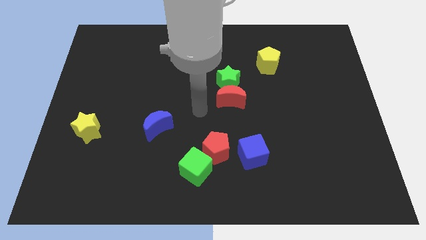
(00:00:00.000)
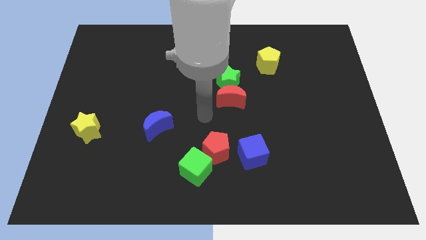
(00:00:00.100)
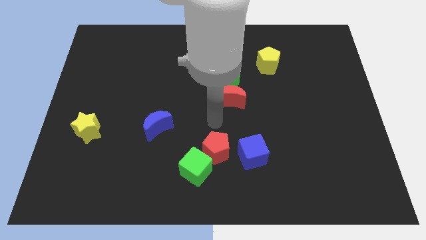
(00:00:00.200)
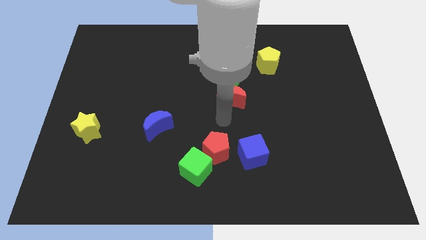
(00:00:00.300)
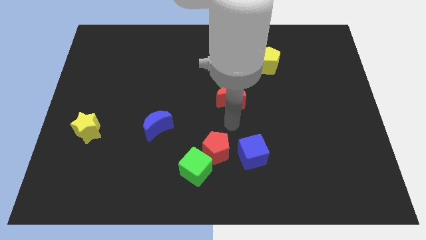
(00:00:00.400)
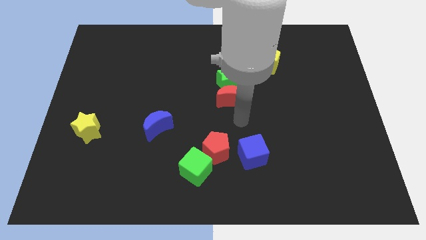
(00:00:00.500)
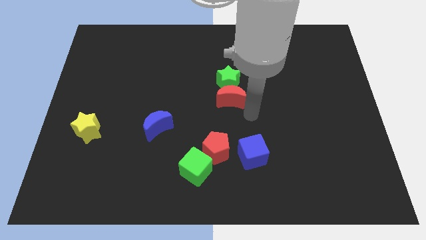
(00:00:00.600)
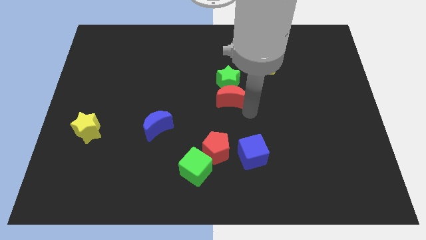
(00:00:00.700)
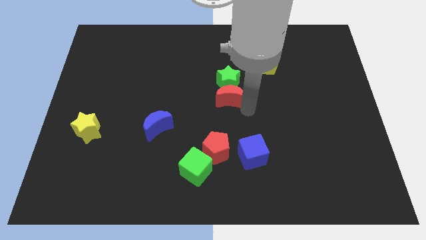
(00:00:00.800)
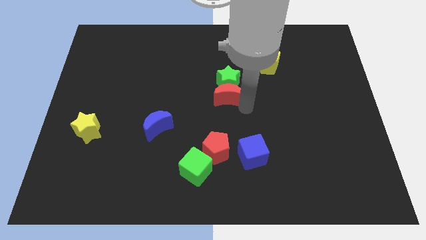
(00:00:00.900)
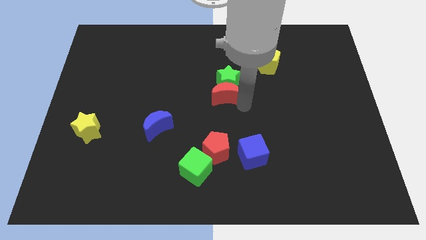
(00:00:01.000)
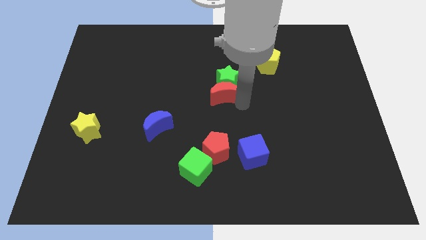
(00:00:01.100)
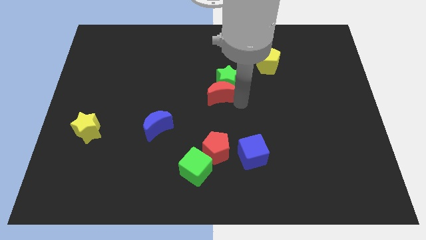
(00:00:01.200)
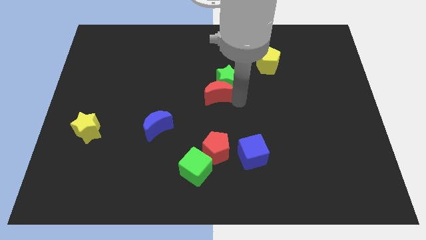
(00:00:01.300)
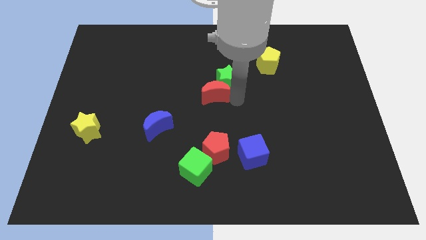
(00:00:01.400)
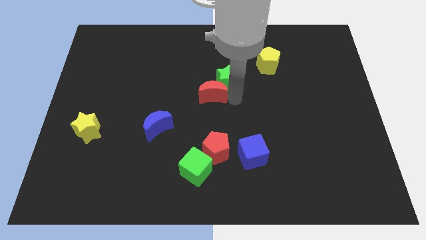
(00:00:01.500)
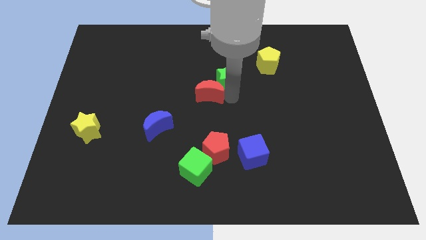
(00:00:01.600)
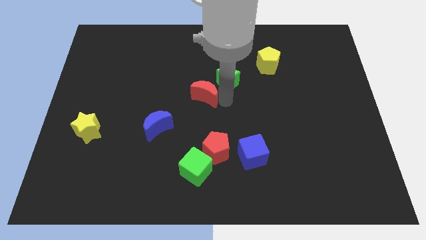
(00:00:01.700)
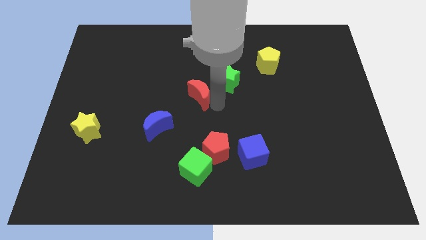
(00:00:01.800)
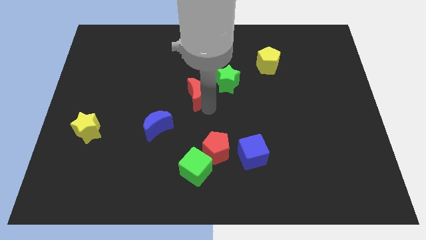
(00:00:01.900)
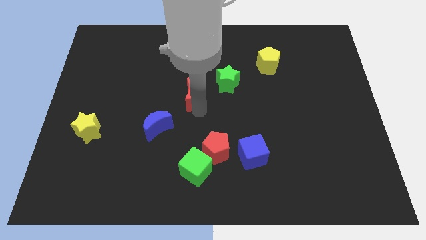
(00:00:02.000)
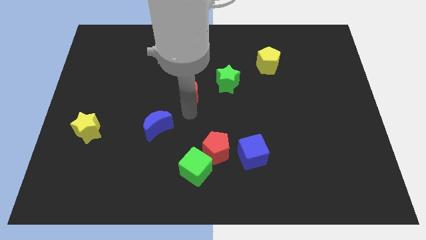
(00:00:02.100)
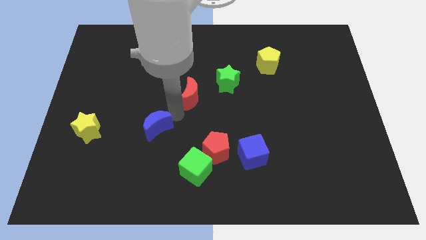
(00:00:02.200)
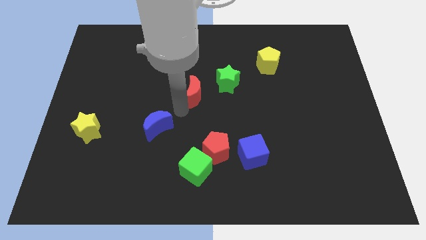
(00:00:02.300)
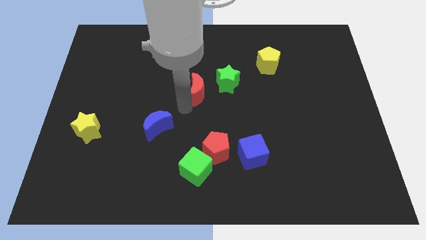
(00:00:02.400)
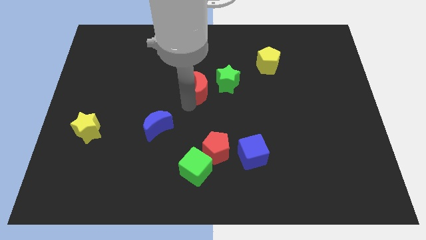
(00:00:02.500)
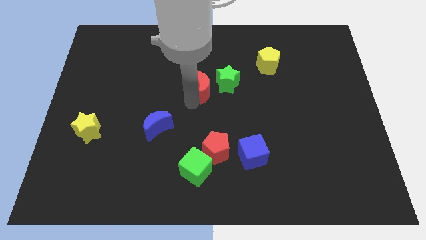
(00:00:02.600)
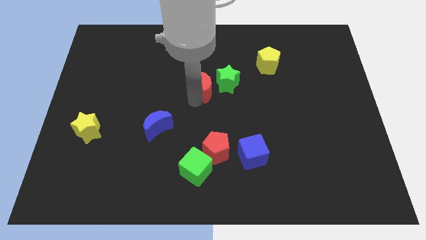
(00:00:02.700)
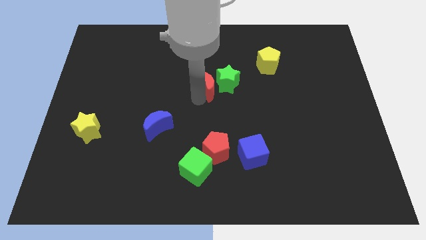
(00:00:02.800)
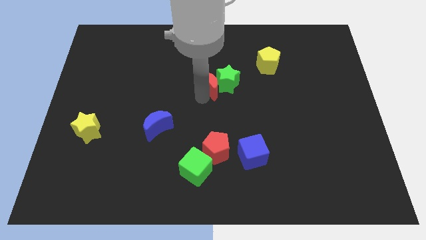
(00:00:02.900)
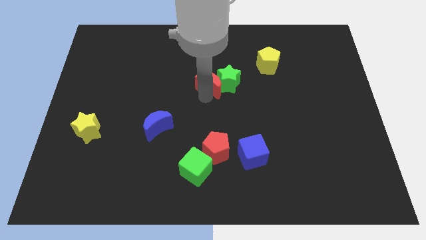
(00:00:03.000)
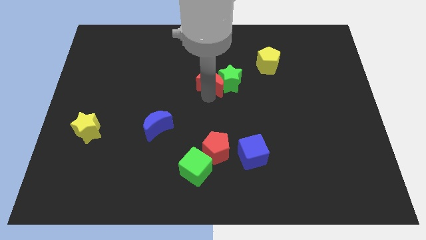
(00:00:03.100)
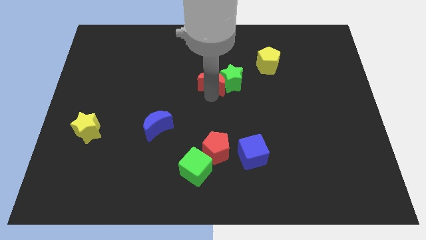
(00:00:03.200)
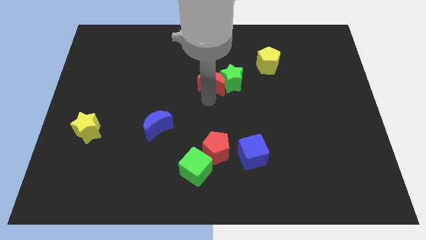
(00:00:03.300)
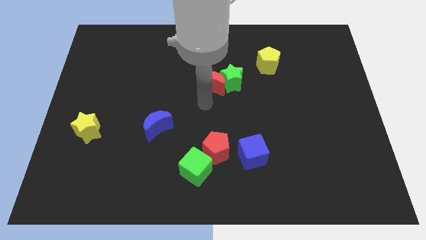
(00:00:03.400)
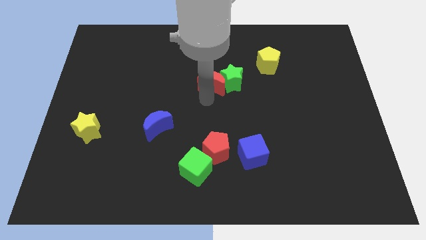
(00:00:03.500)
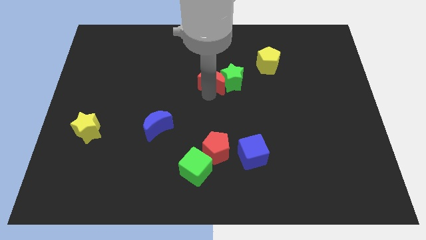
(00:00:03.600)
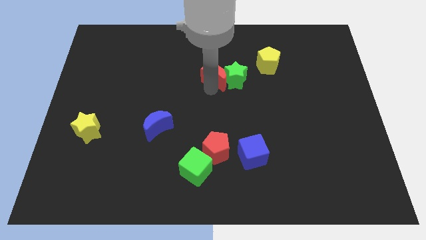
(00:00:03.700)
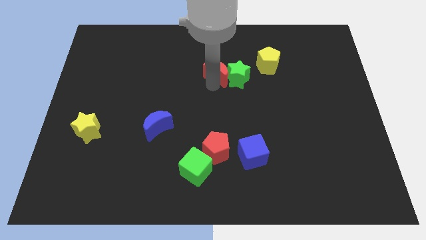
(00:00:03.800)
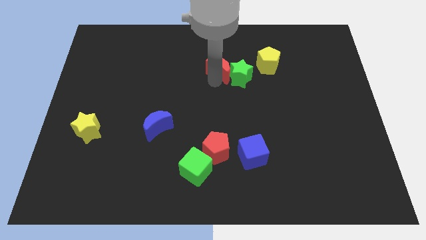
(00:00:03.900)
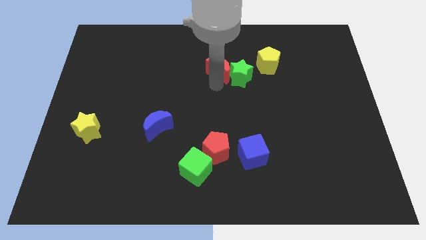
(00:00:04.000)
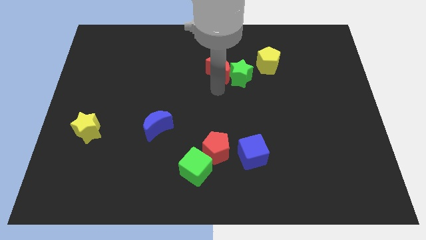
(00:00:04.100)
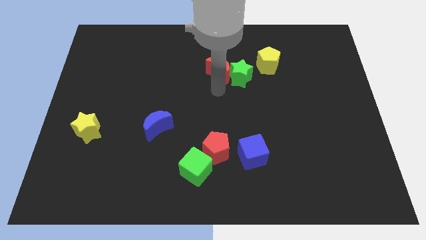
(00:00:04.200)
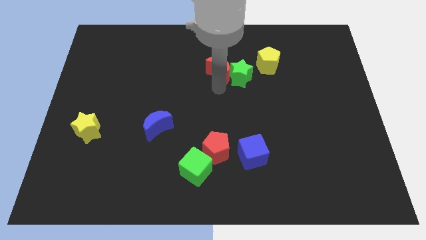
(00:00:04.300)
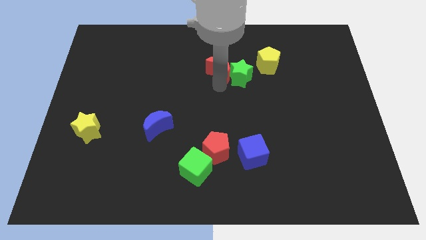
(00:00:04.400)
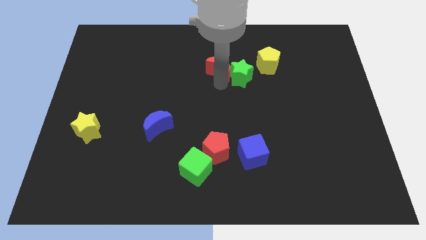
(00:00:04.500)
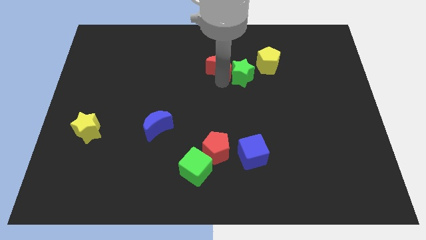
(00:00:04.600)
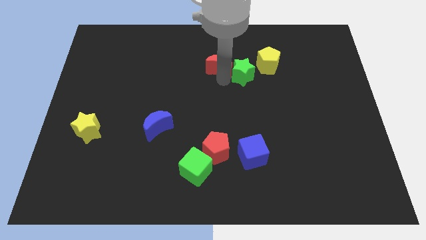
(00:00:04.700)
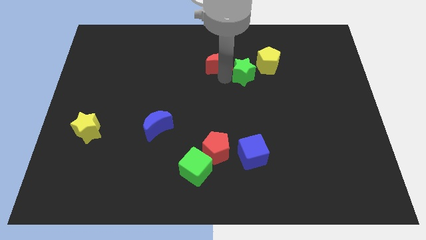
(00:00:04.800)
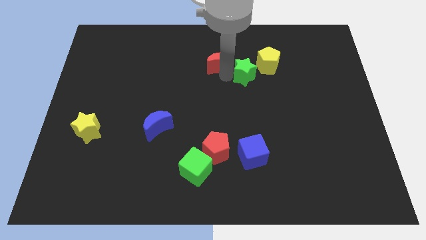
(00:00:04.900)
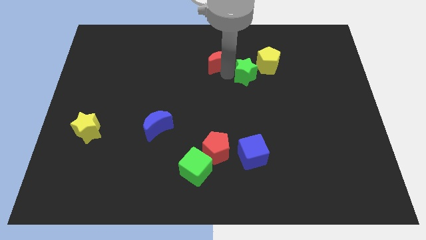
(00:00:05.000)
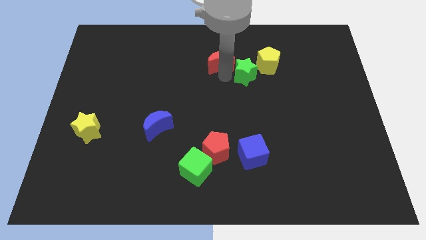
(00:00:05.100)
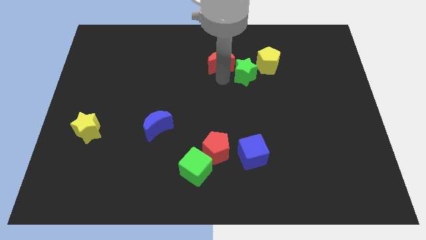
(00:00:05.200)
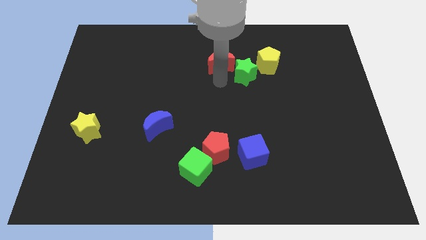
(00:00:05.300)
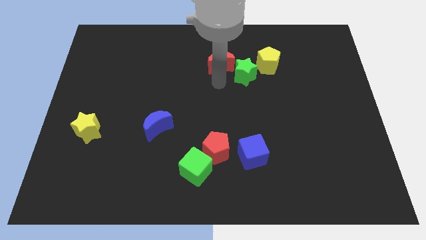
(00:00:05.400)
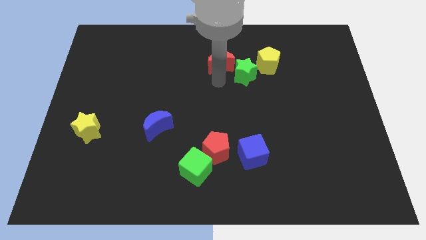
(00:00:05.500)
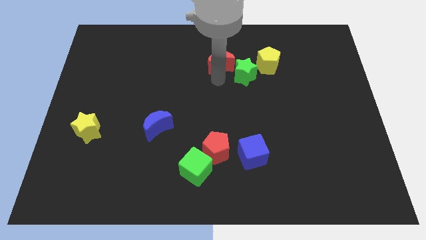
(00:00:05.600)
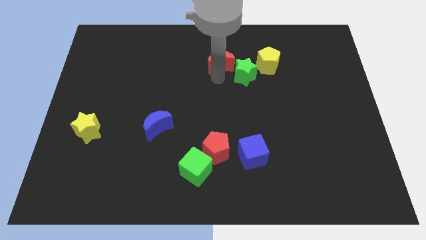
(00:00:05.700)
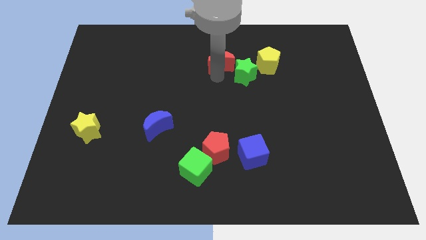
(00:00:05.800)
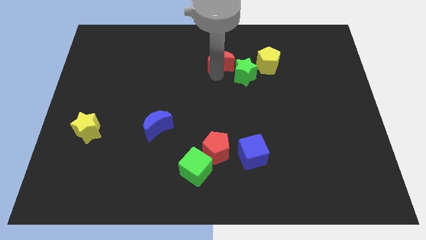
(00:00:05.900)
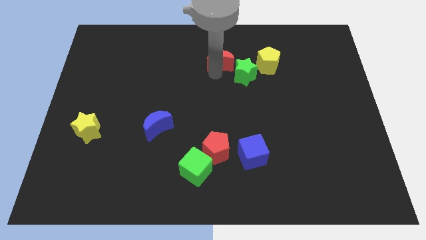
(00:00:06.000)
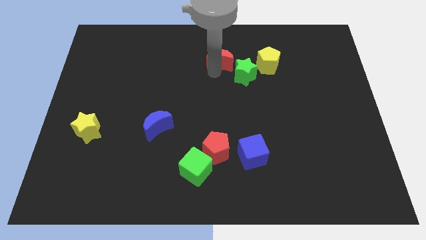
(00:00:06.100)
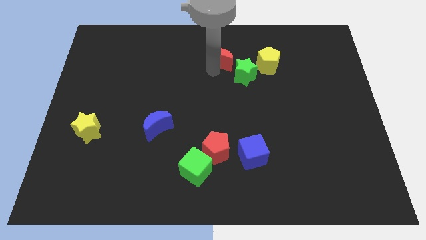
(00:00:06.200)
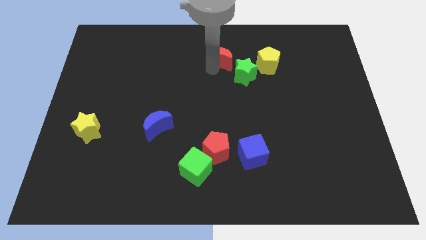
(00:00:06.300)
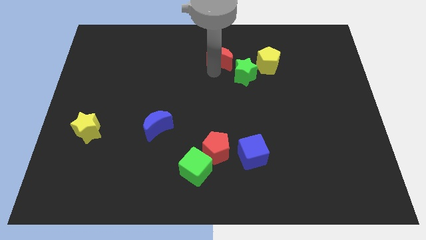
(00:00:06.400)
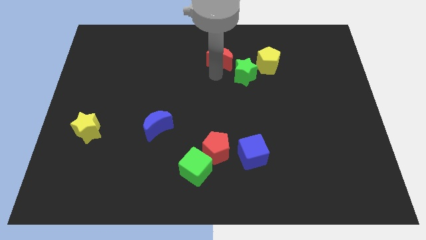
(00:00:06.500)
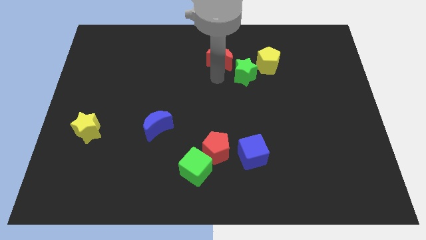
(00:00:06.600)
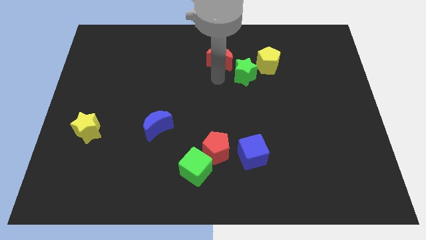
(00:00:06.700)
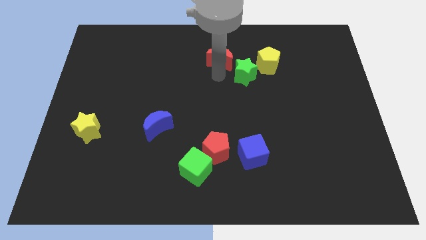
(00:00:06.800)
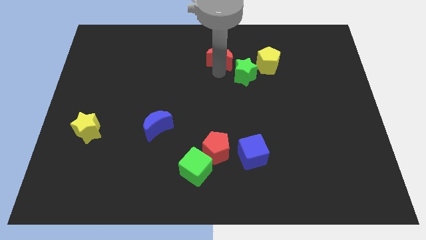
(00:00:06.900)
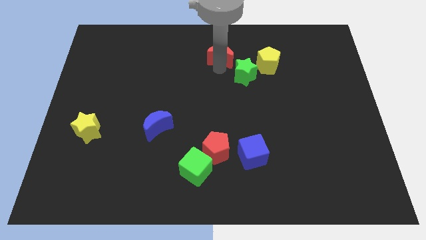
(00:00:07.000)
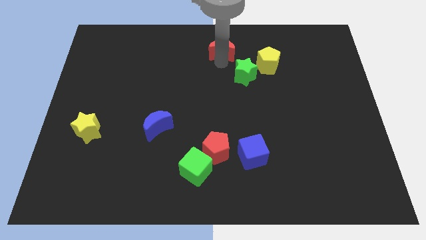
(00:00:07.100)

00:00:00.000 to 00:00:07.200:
push the red moon to the top side
